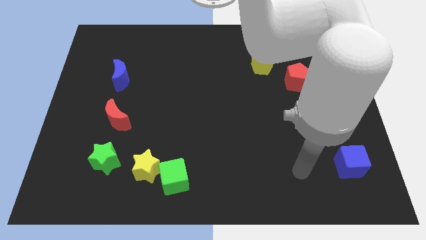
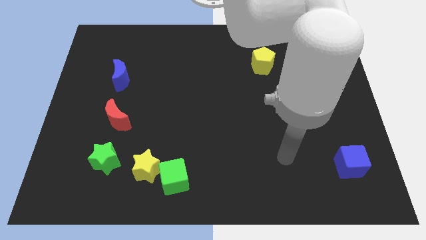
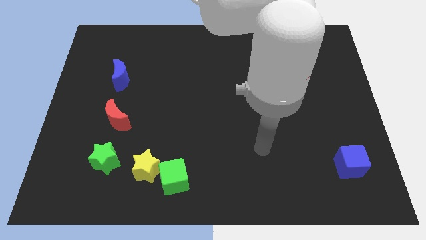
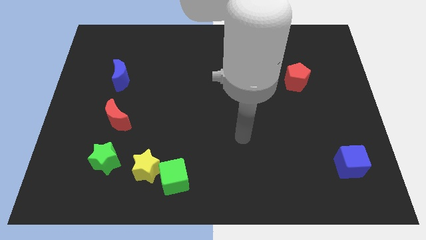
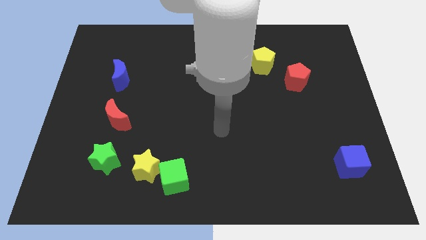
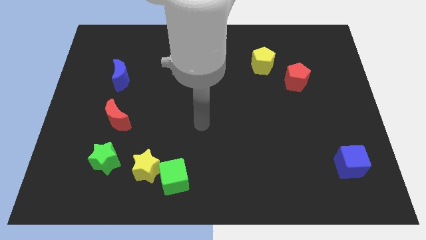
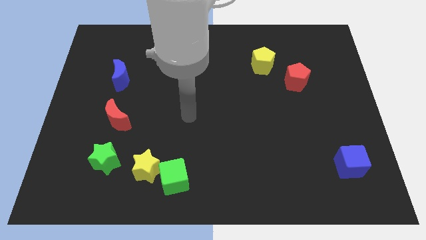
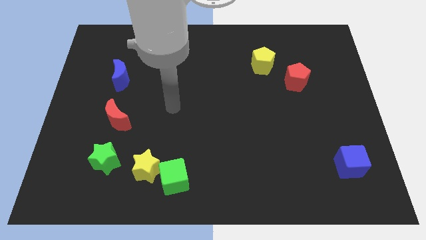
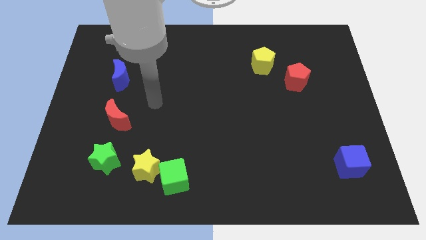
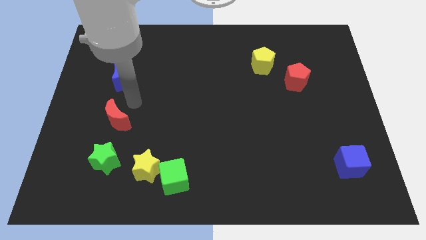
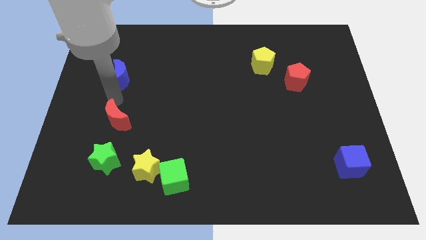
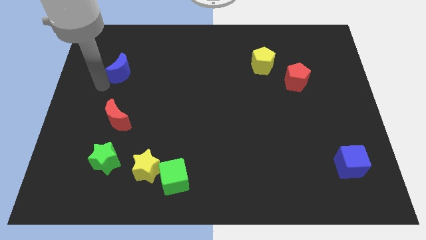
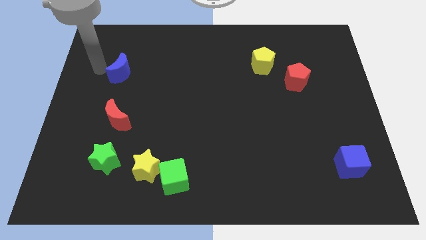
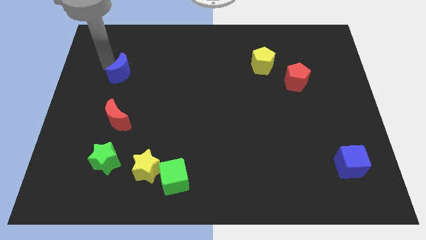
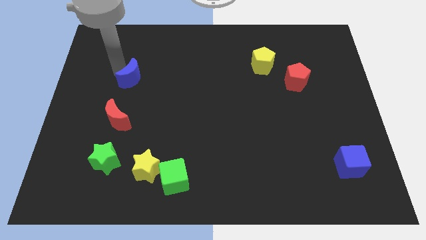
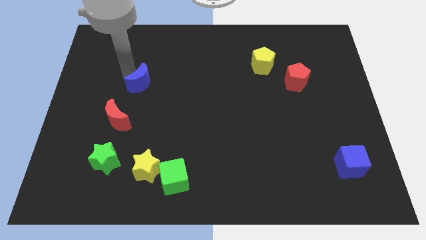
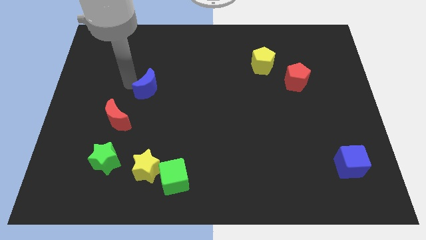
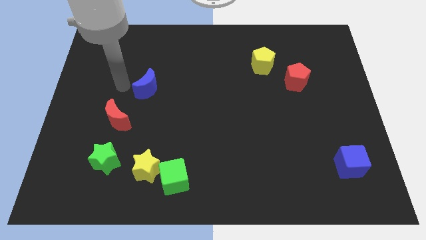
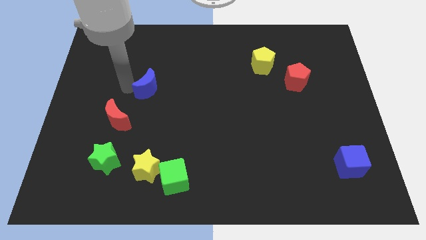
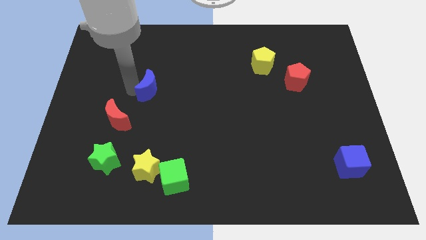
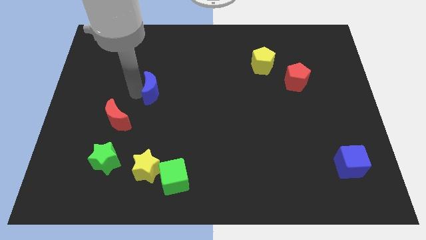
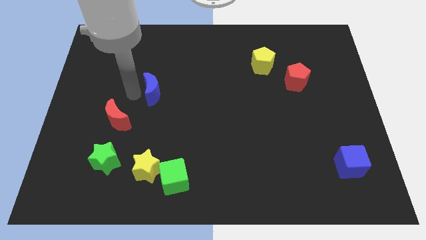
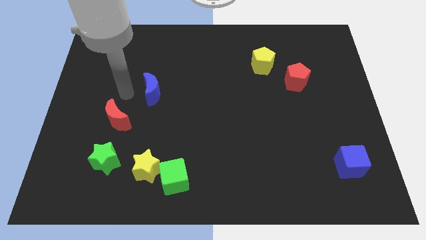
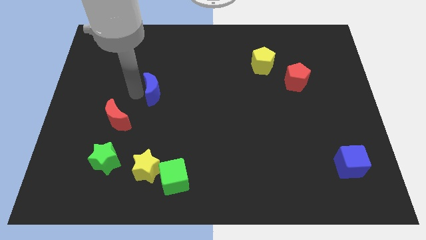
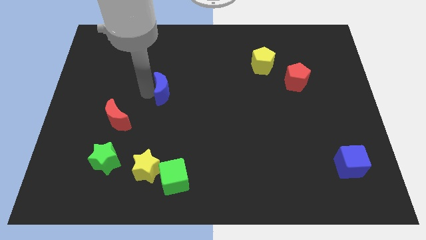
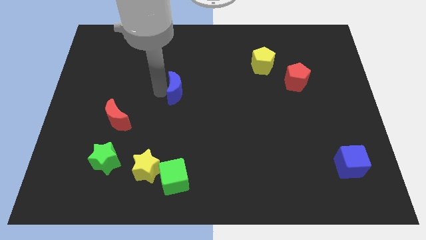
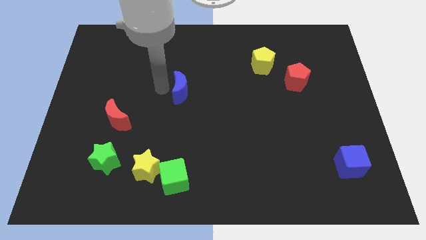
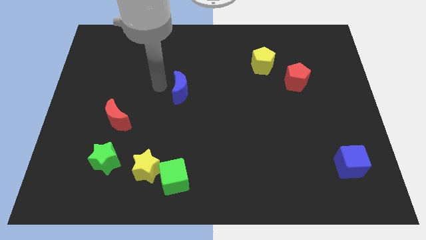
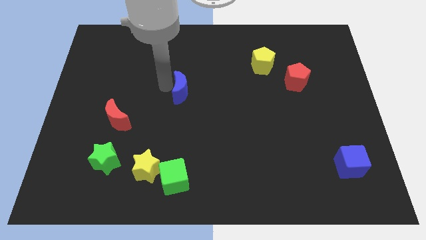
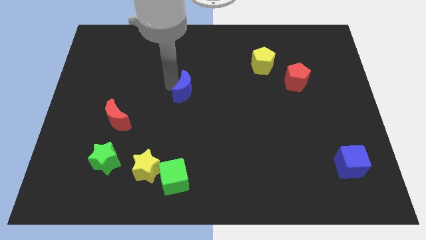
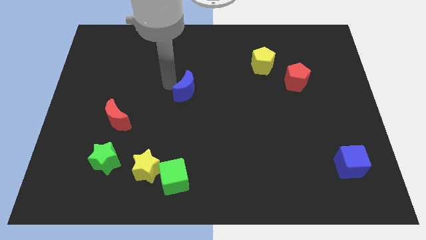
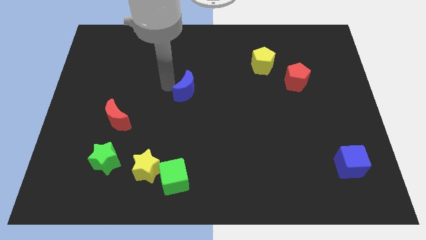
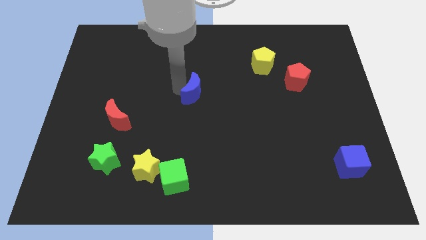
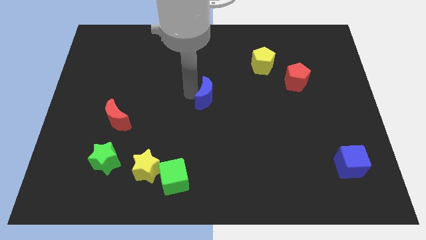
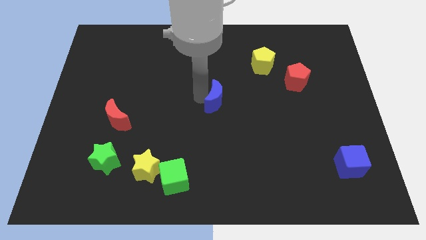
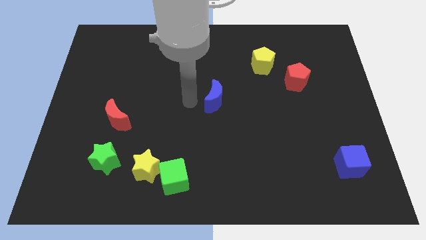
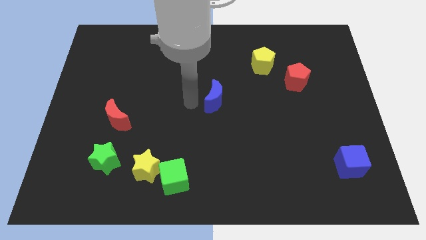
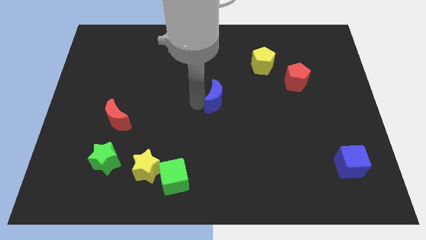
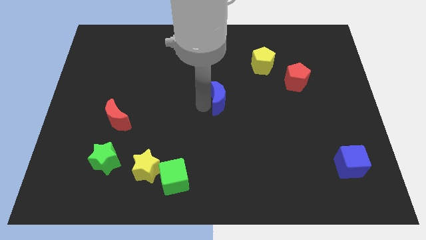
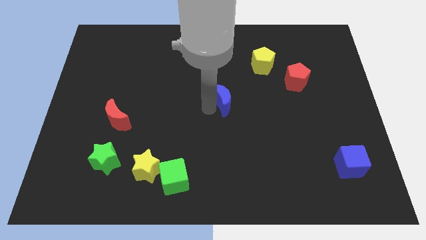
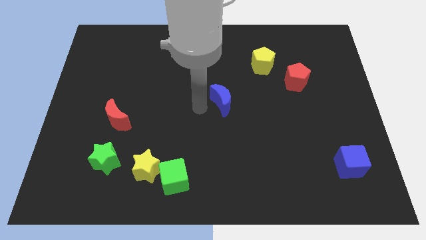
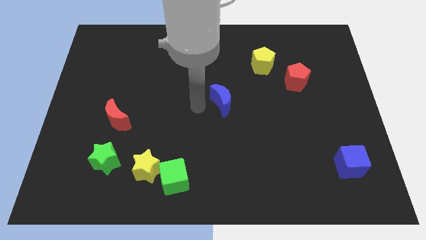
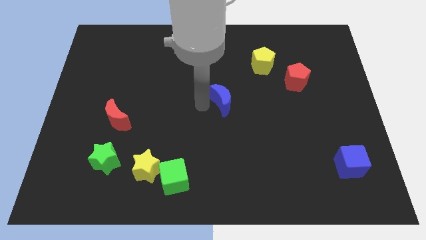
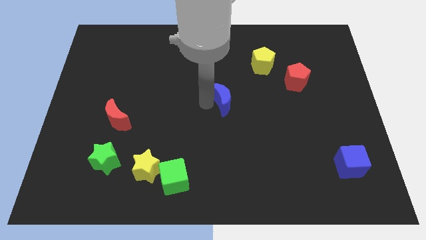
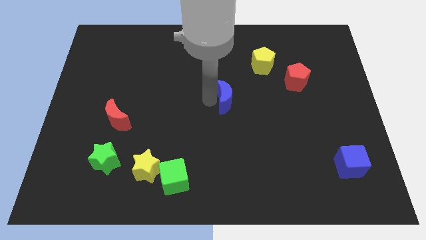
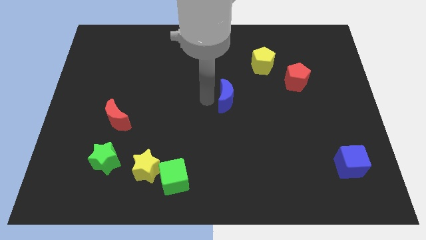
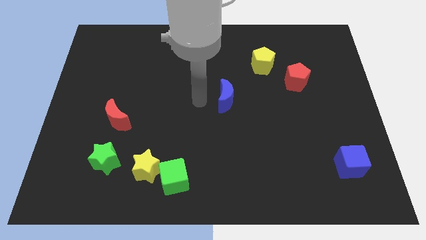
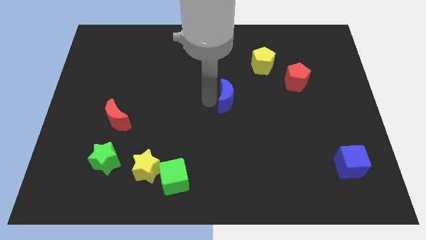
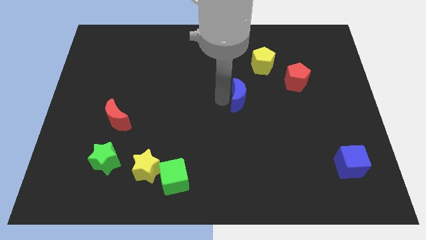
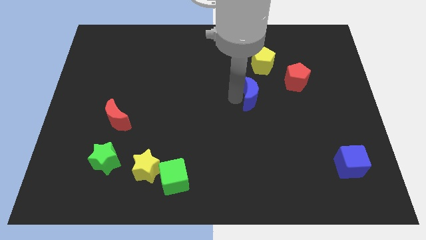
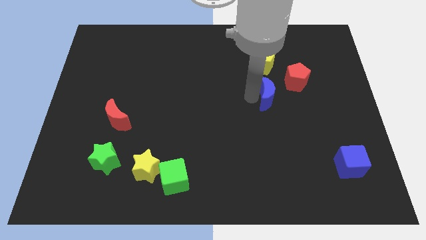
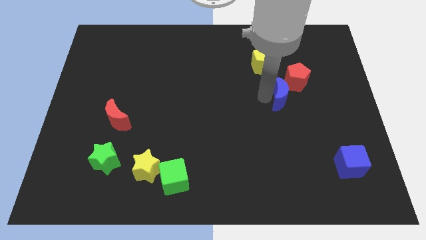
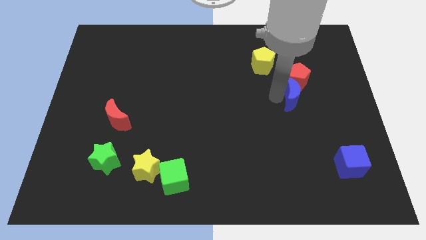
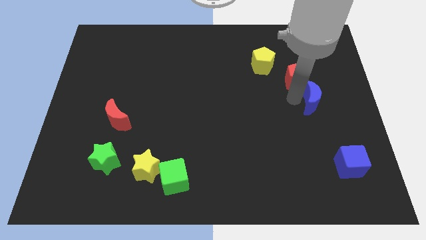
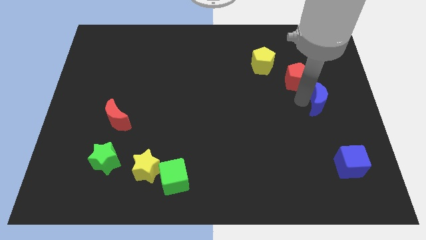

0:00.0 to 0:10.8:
move the blue moon to the right side of the board

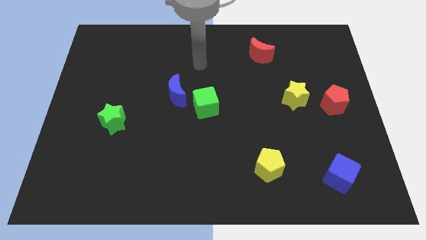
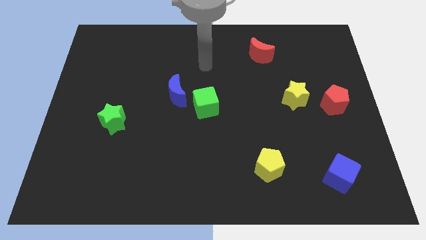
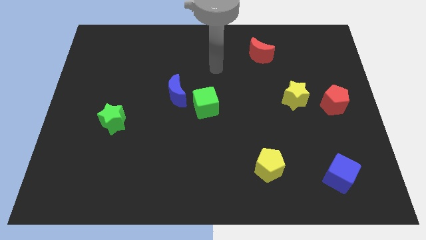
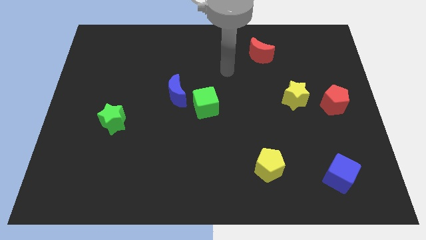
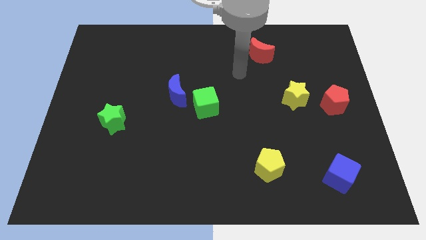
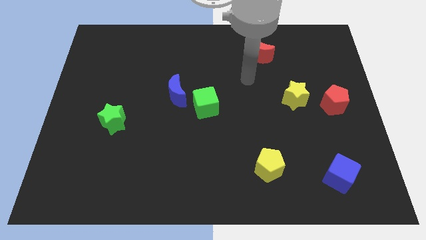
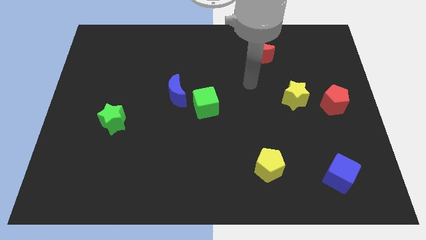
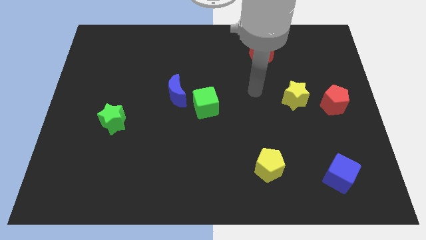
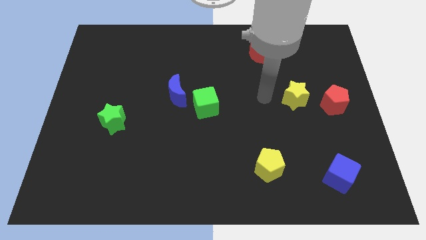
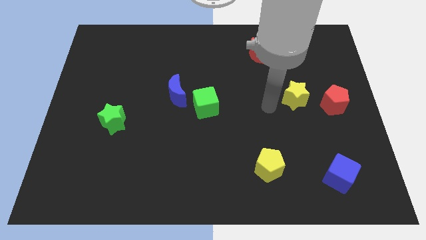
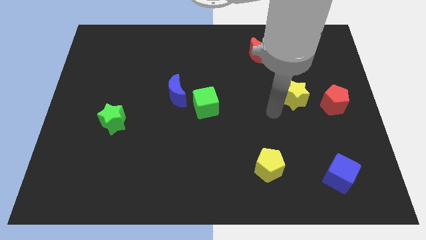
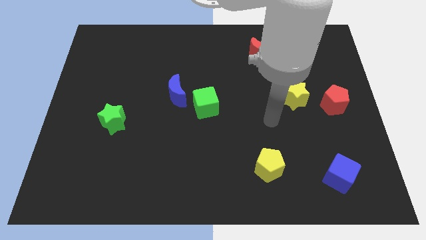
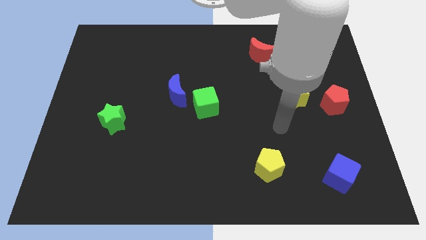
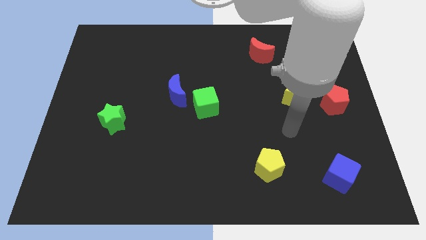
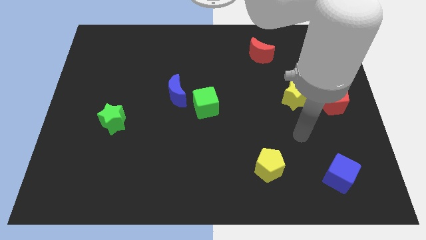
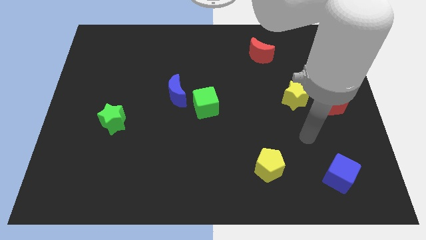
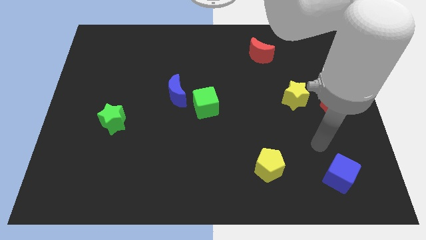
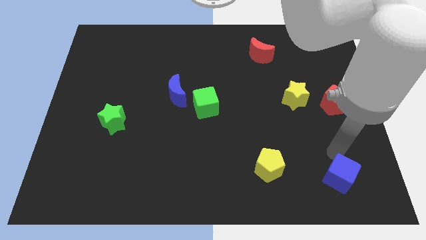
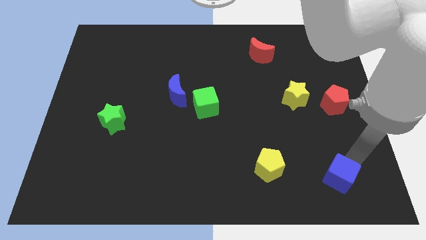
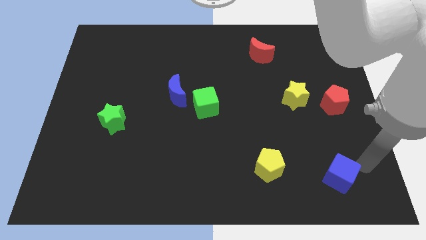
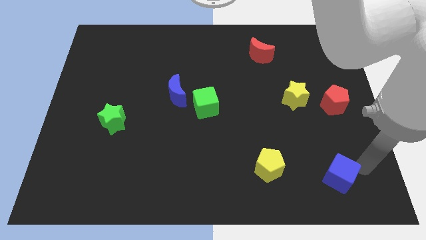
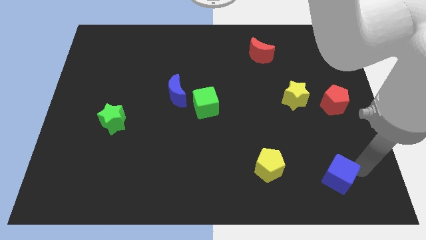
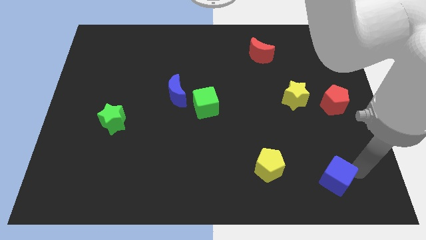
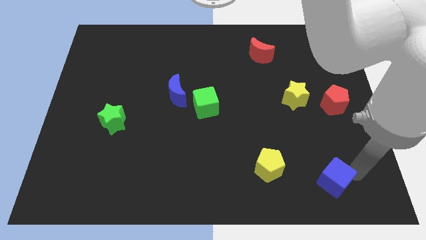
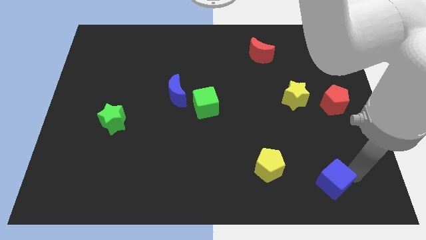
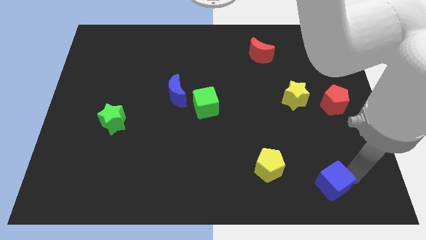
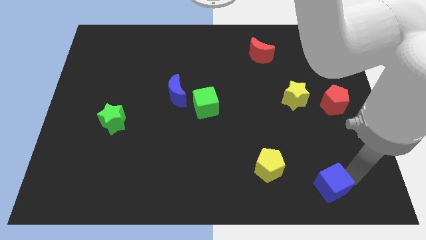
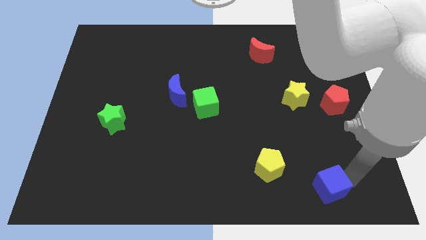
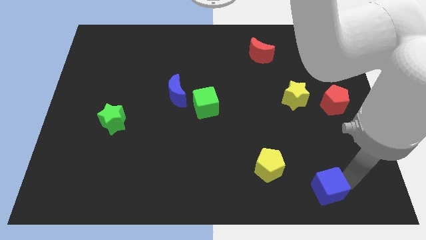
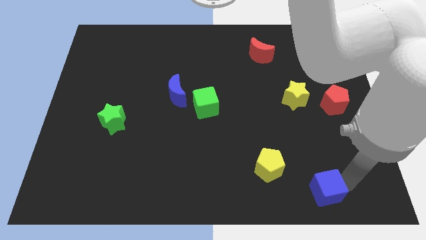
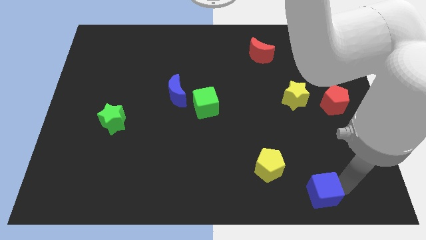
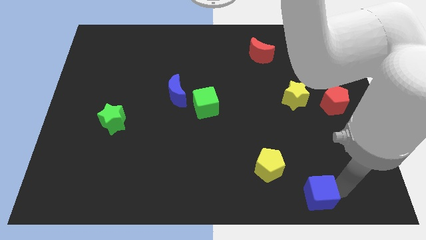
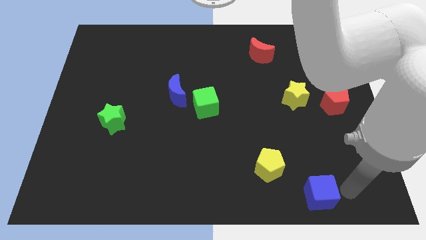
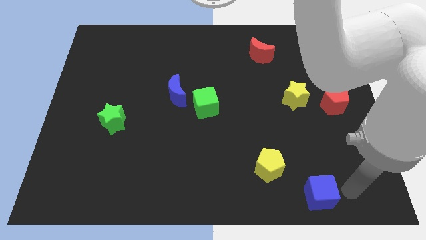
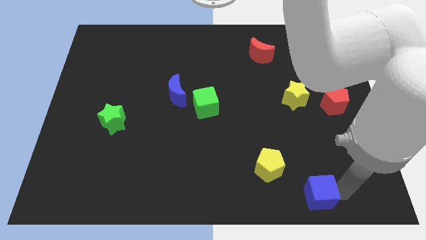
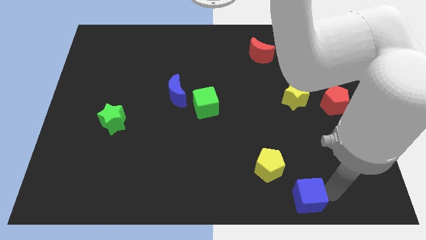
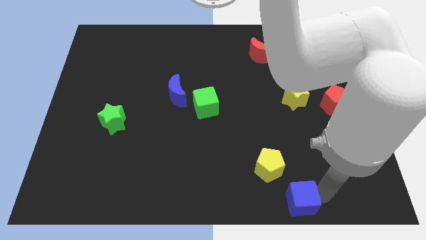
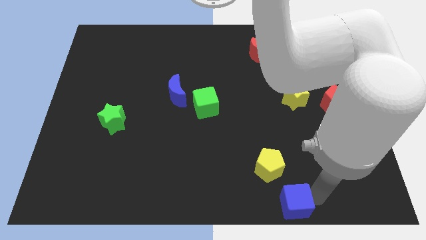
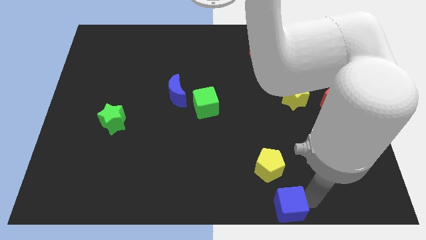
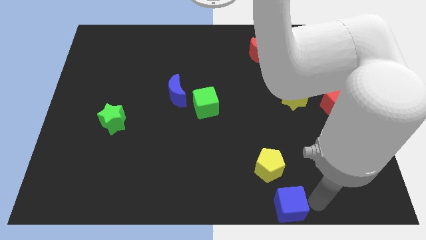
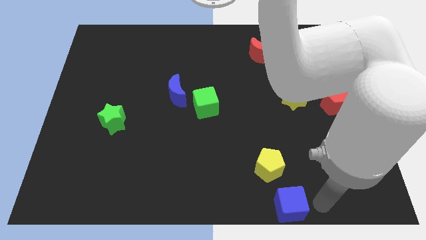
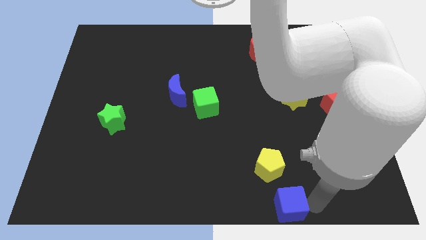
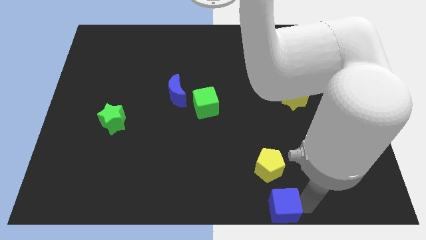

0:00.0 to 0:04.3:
push the blue cube to the bottom
